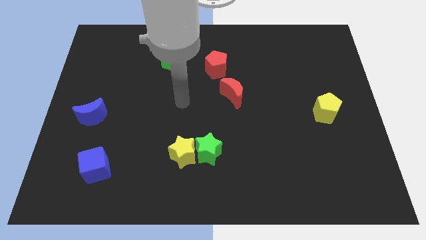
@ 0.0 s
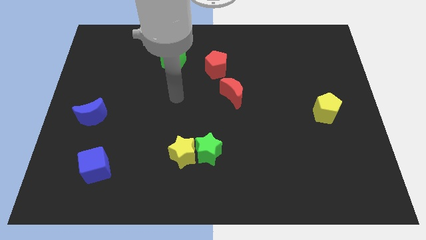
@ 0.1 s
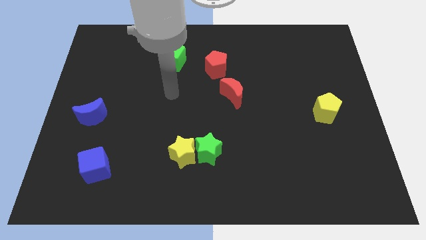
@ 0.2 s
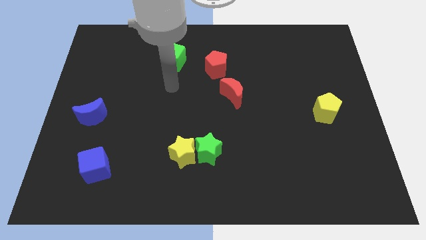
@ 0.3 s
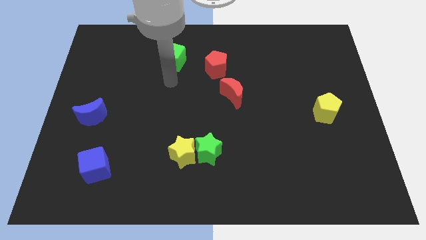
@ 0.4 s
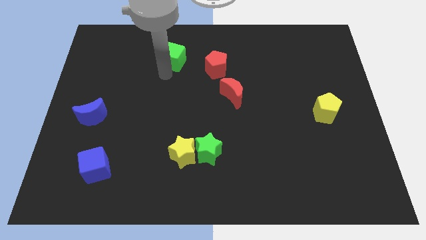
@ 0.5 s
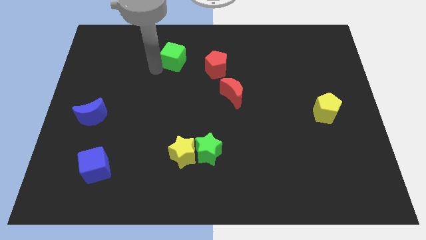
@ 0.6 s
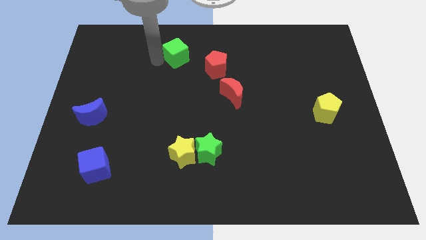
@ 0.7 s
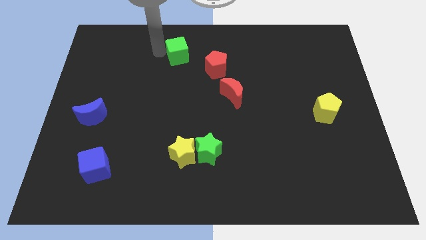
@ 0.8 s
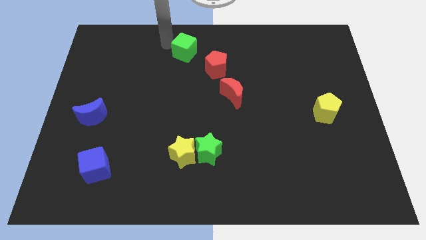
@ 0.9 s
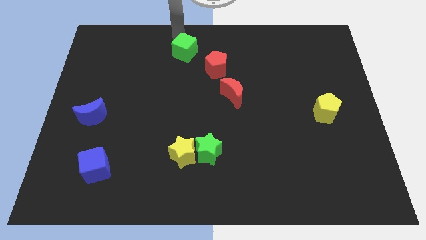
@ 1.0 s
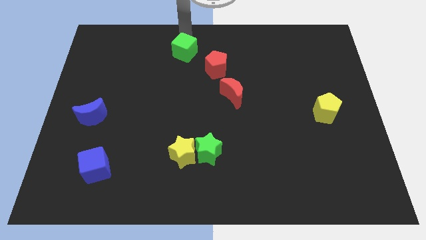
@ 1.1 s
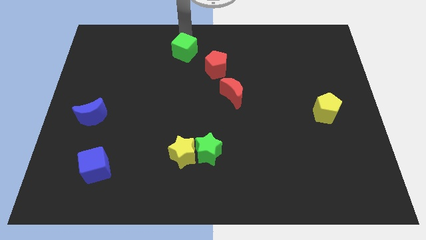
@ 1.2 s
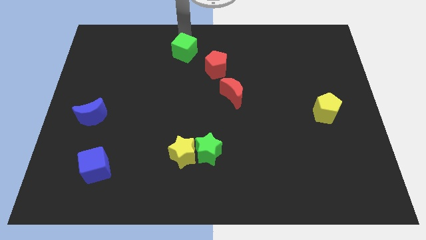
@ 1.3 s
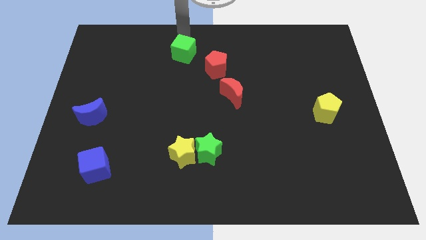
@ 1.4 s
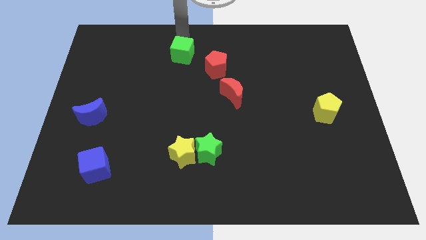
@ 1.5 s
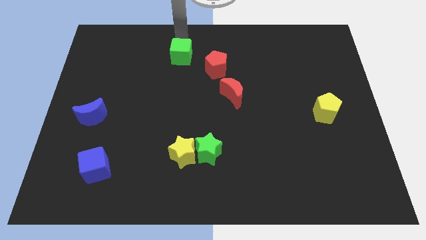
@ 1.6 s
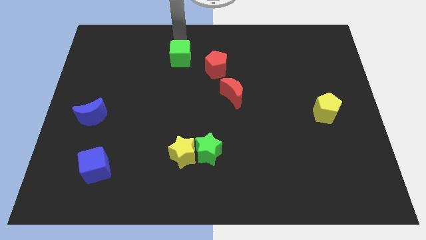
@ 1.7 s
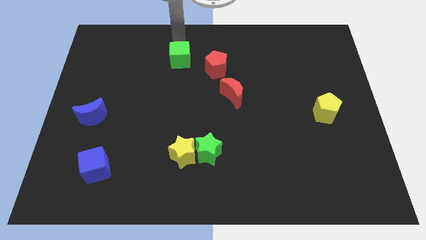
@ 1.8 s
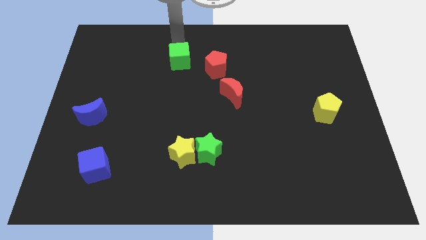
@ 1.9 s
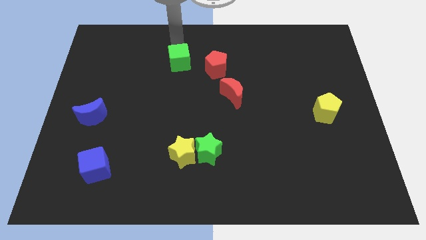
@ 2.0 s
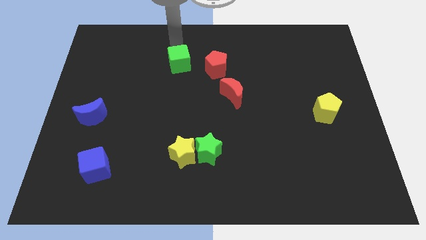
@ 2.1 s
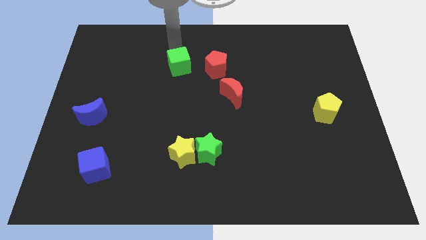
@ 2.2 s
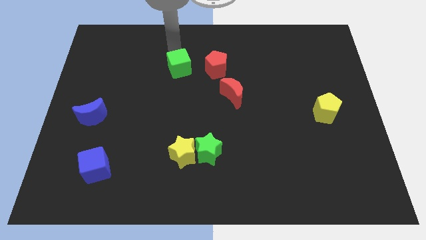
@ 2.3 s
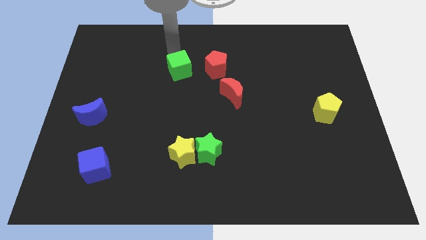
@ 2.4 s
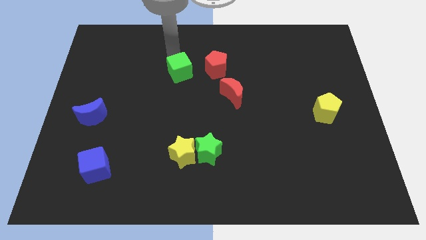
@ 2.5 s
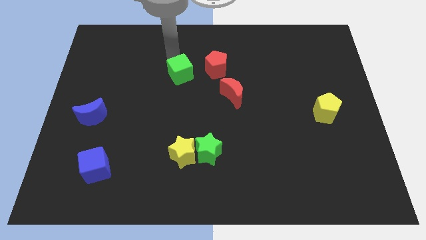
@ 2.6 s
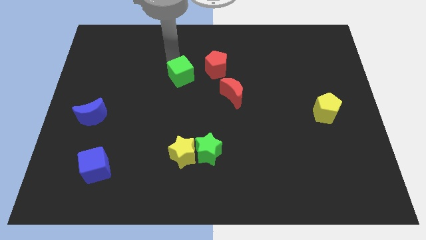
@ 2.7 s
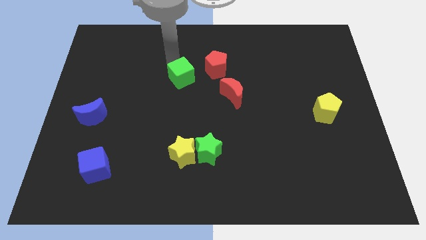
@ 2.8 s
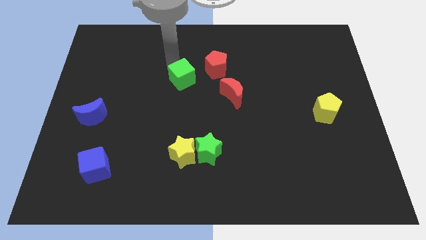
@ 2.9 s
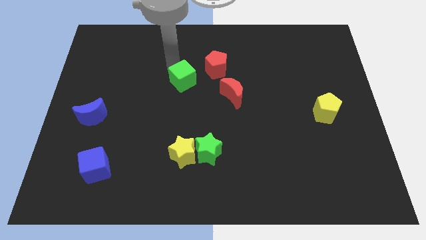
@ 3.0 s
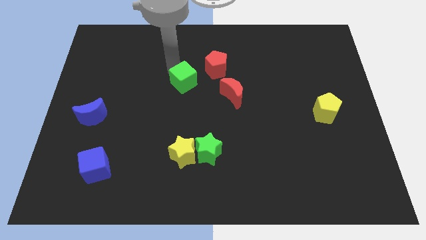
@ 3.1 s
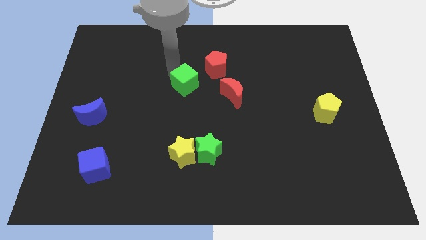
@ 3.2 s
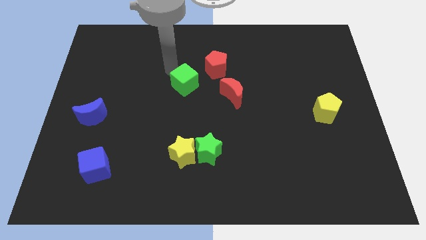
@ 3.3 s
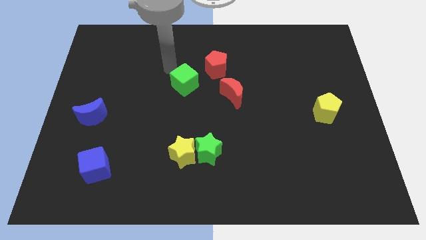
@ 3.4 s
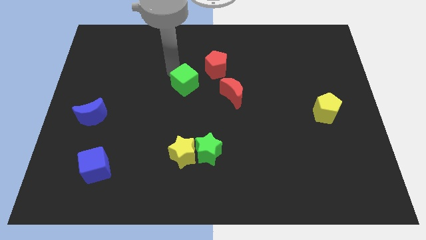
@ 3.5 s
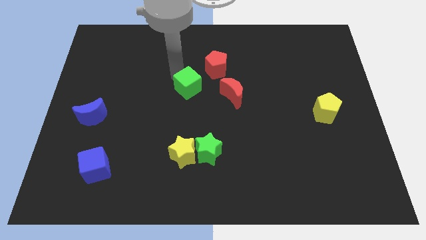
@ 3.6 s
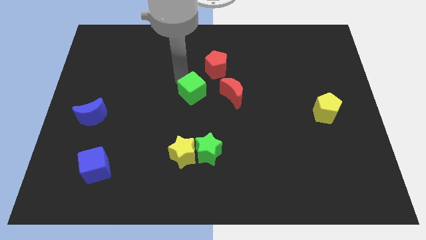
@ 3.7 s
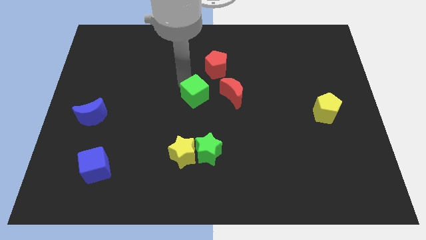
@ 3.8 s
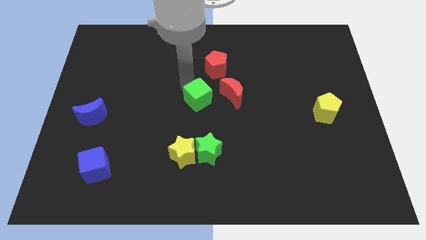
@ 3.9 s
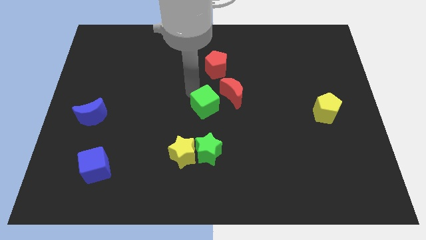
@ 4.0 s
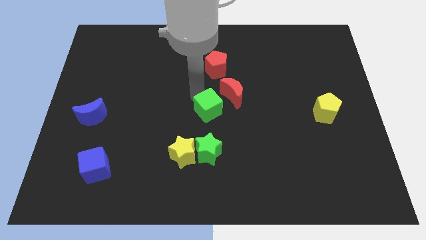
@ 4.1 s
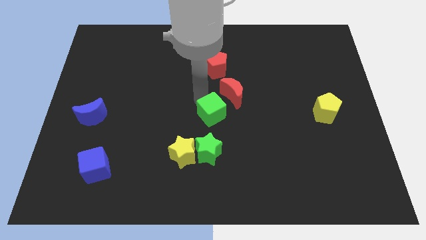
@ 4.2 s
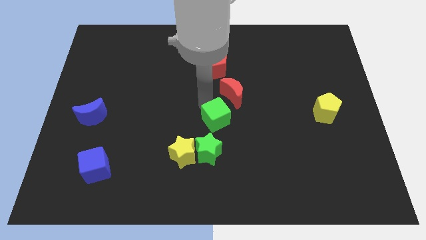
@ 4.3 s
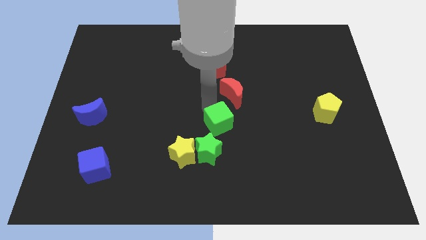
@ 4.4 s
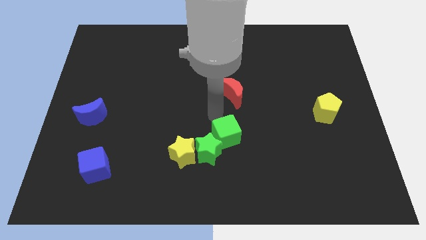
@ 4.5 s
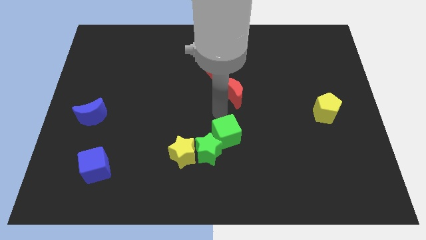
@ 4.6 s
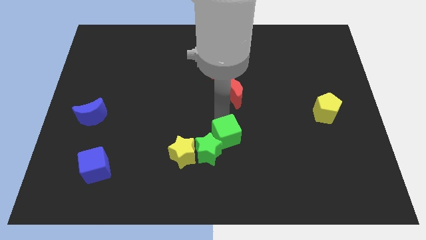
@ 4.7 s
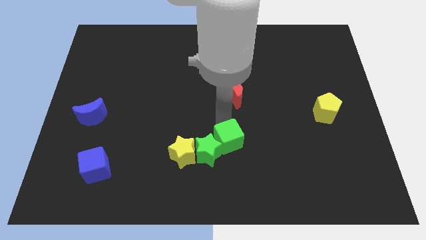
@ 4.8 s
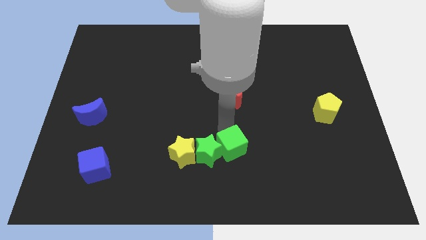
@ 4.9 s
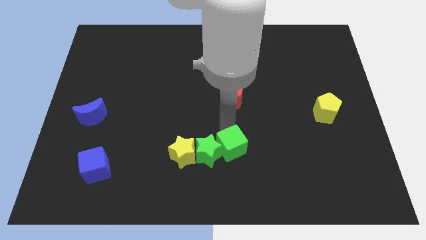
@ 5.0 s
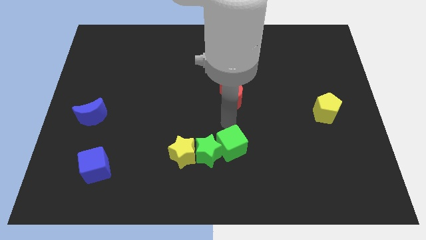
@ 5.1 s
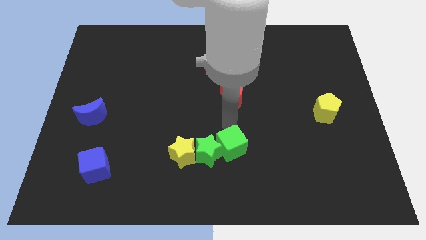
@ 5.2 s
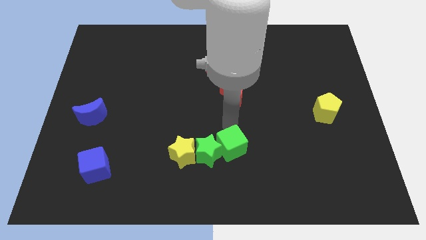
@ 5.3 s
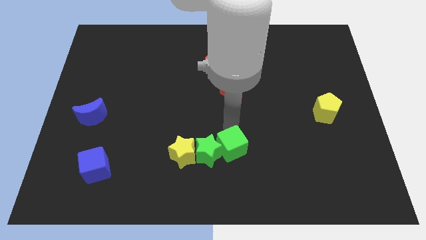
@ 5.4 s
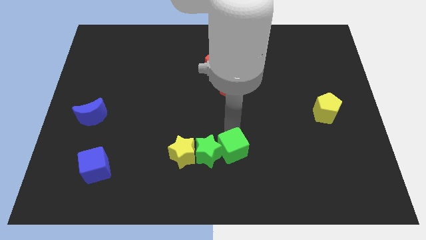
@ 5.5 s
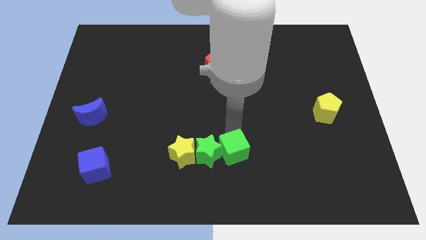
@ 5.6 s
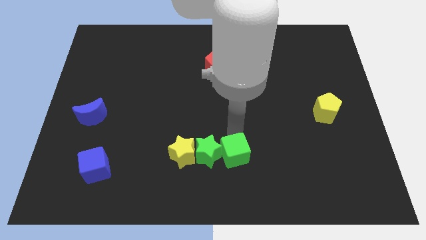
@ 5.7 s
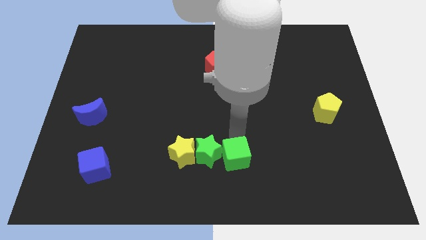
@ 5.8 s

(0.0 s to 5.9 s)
push the green cube to the bottom

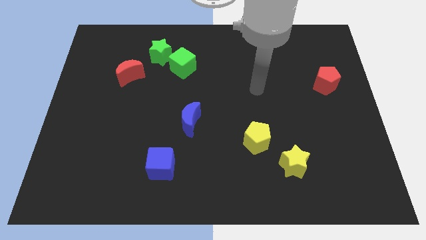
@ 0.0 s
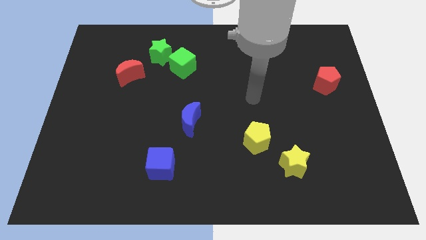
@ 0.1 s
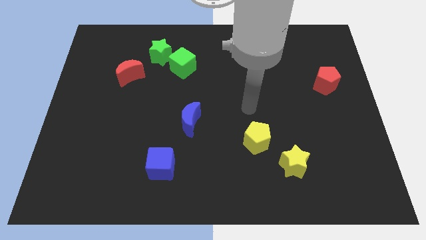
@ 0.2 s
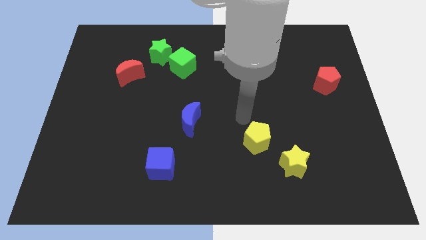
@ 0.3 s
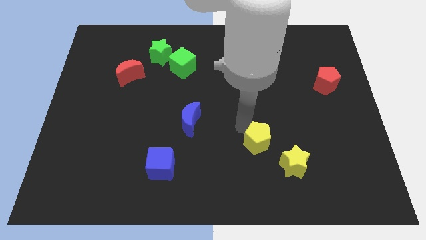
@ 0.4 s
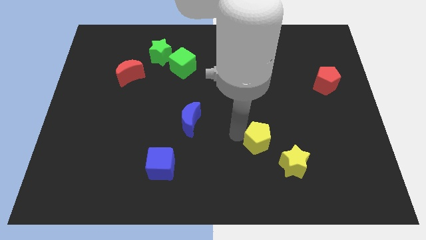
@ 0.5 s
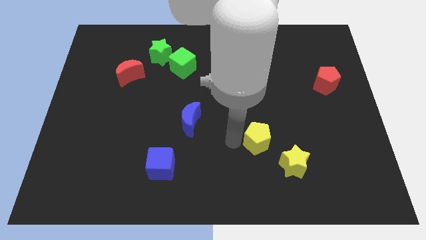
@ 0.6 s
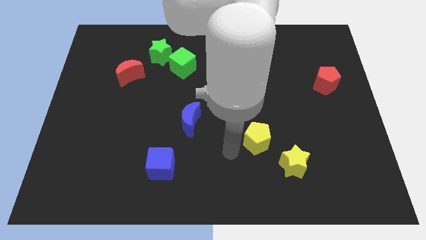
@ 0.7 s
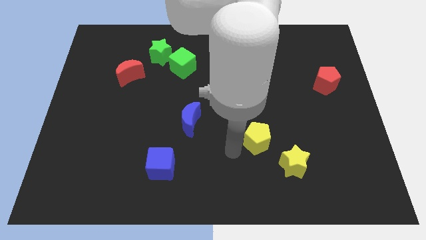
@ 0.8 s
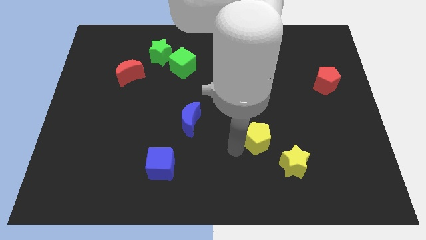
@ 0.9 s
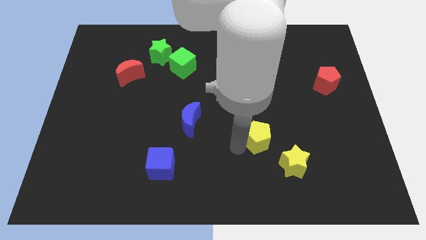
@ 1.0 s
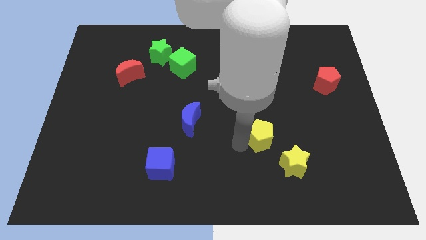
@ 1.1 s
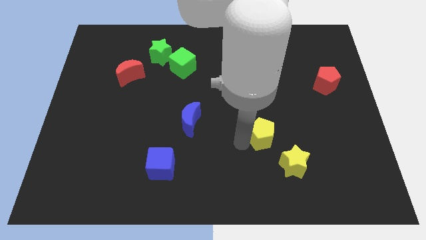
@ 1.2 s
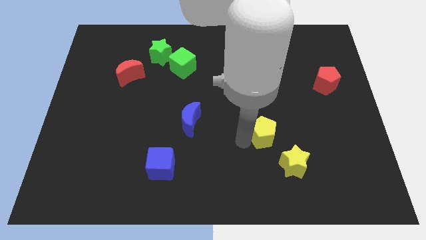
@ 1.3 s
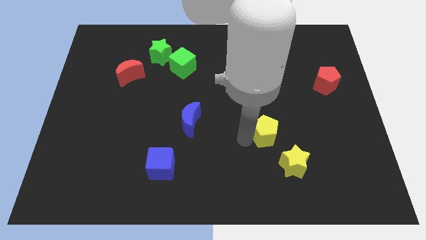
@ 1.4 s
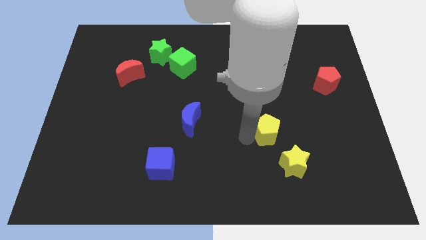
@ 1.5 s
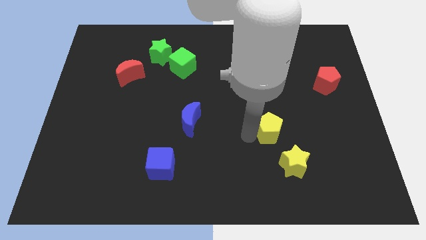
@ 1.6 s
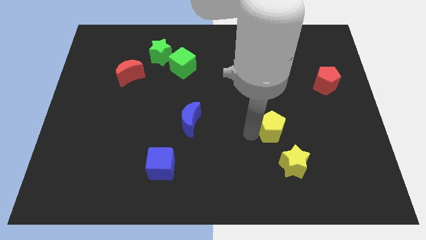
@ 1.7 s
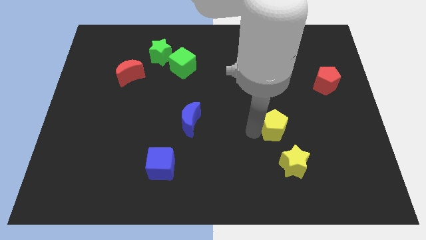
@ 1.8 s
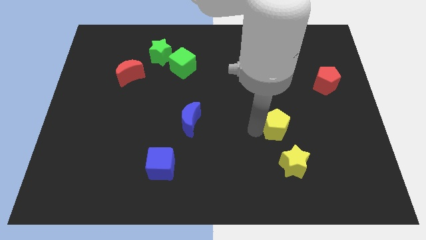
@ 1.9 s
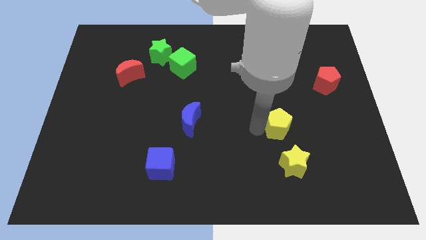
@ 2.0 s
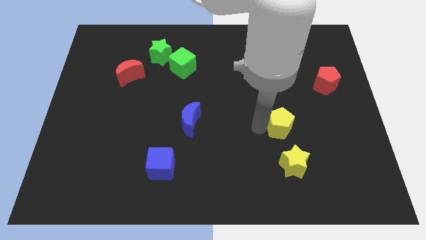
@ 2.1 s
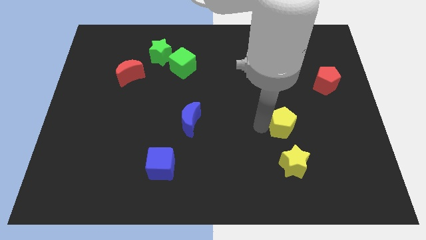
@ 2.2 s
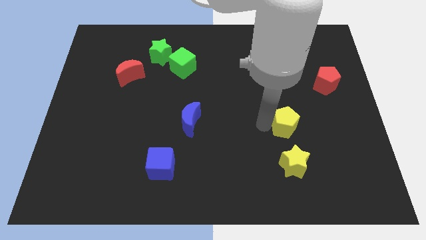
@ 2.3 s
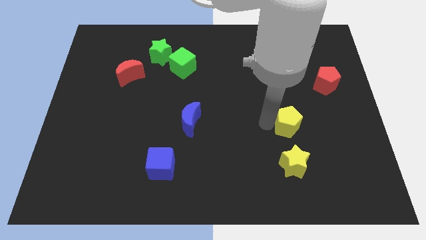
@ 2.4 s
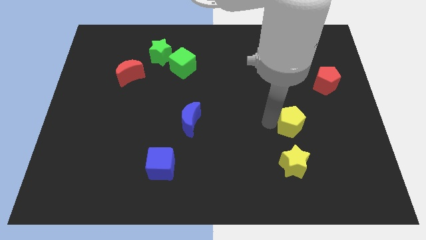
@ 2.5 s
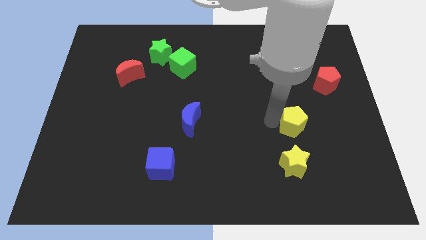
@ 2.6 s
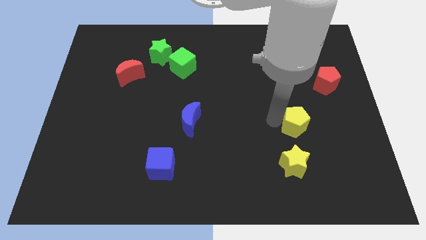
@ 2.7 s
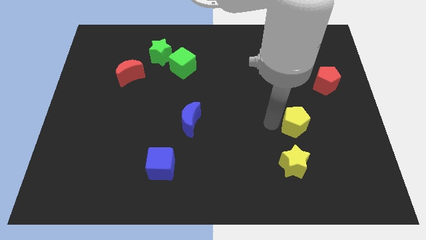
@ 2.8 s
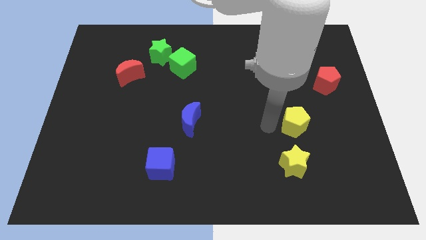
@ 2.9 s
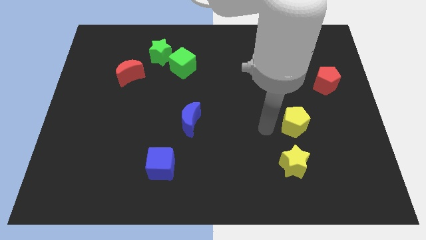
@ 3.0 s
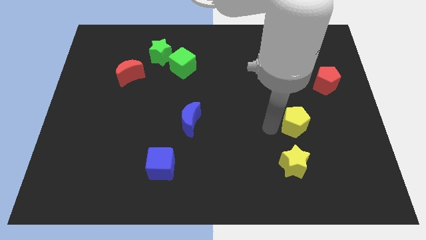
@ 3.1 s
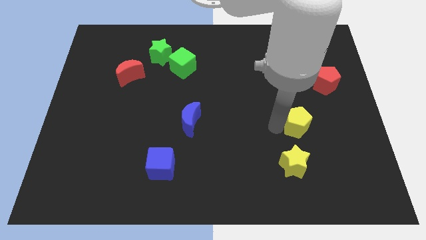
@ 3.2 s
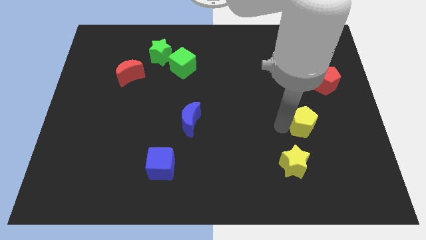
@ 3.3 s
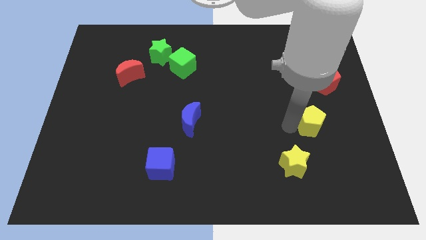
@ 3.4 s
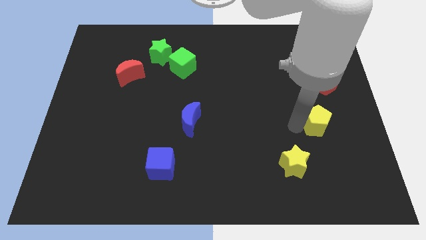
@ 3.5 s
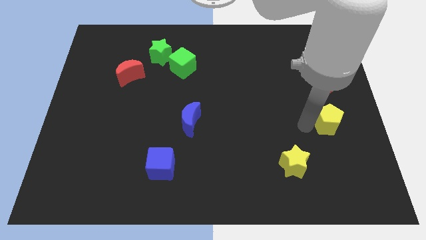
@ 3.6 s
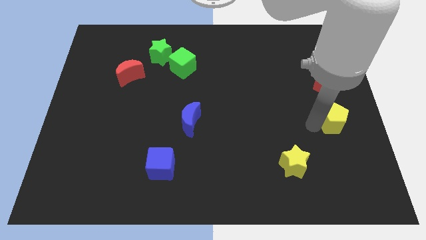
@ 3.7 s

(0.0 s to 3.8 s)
put the yellow pentagon to the right side
